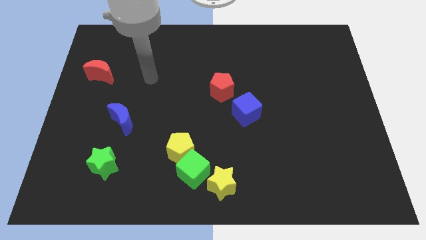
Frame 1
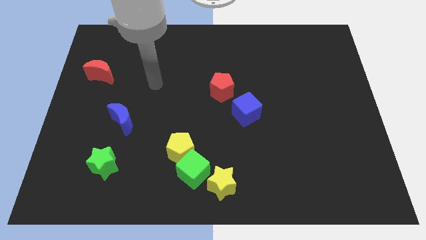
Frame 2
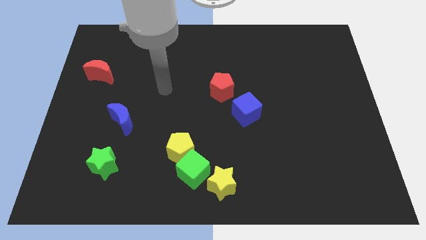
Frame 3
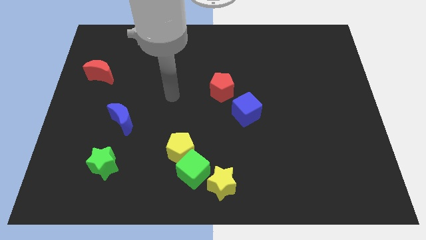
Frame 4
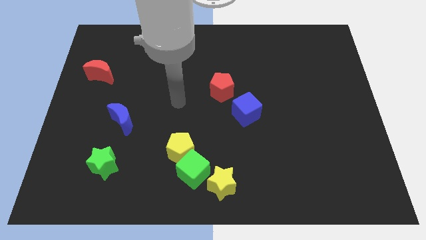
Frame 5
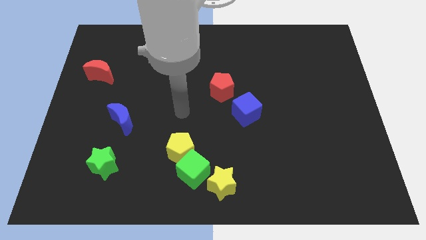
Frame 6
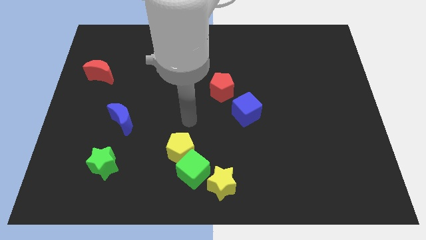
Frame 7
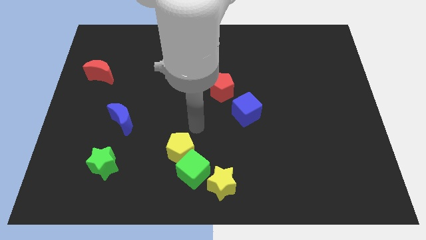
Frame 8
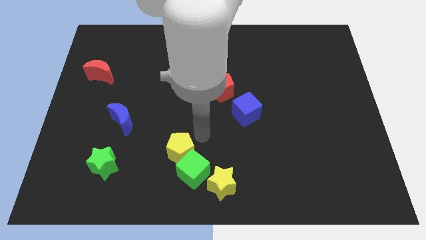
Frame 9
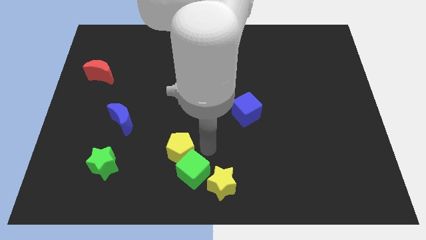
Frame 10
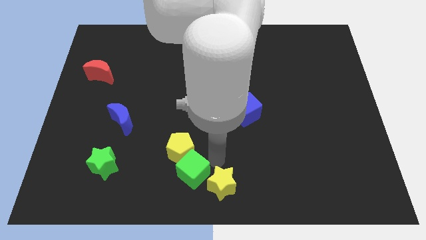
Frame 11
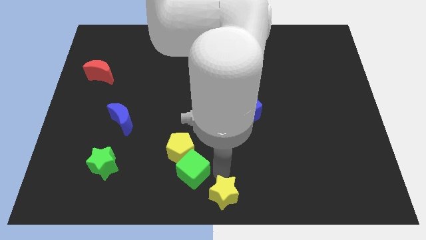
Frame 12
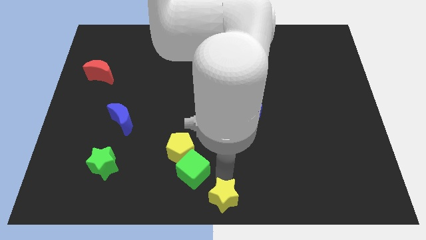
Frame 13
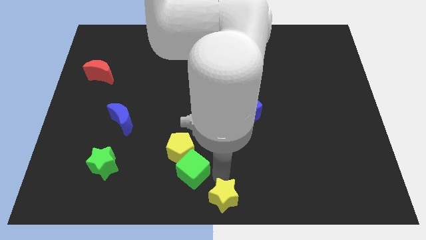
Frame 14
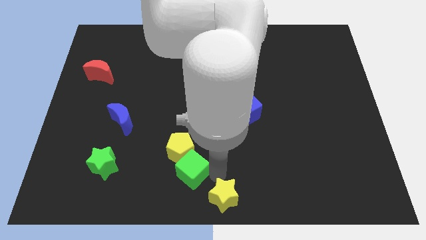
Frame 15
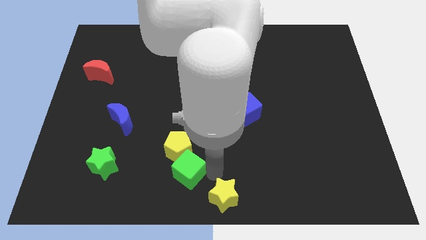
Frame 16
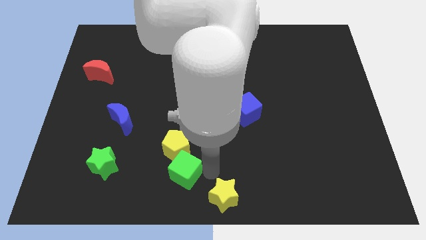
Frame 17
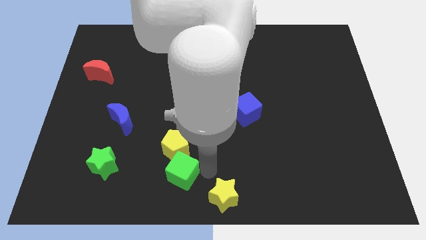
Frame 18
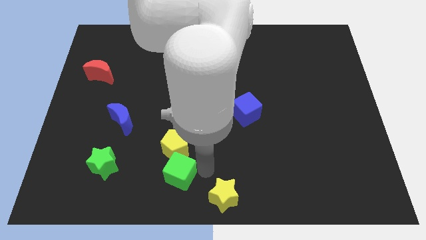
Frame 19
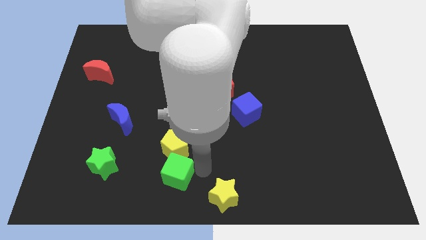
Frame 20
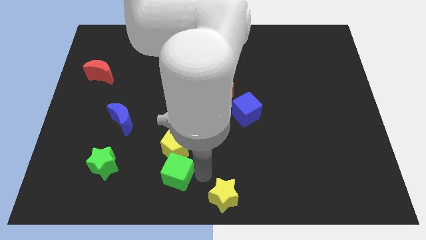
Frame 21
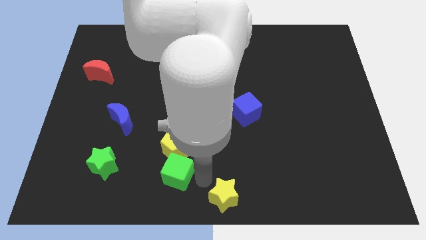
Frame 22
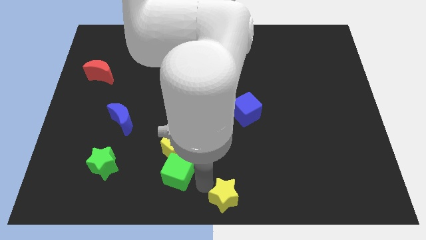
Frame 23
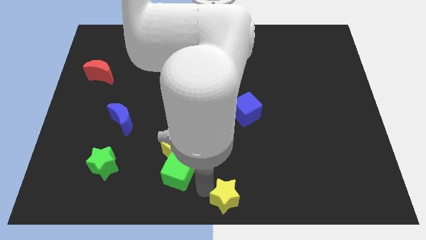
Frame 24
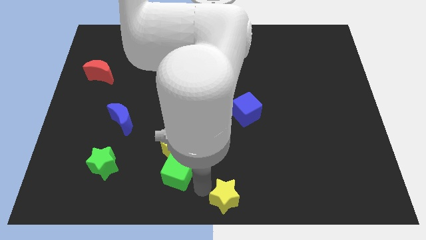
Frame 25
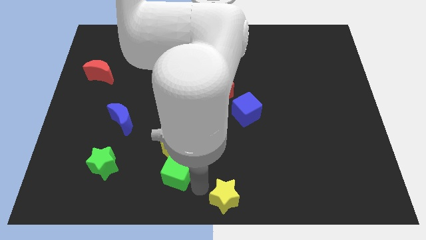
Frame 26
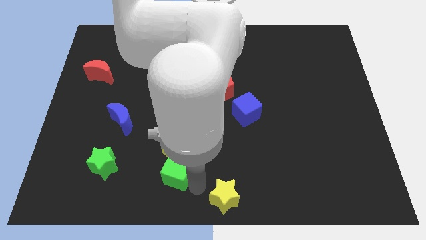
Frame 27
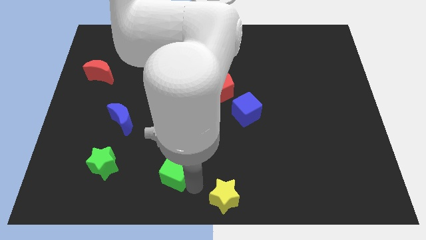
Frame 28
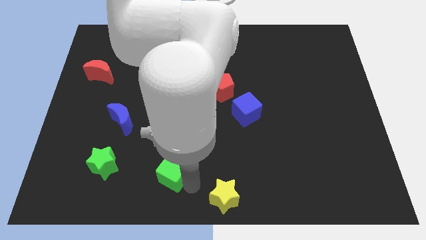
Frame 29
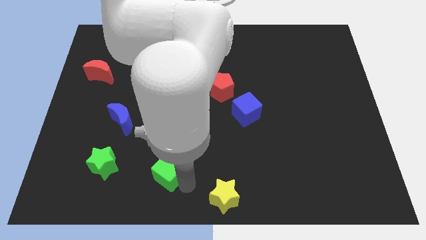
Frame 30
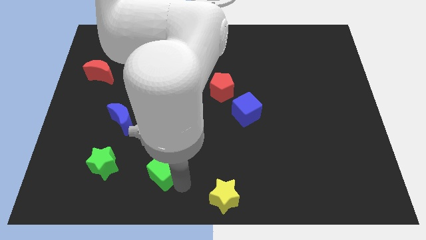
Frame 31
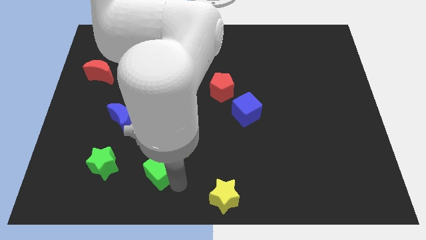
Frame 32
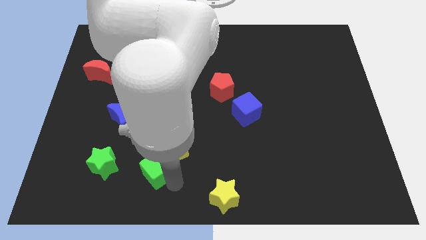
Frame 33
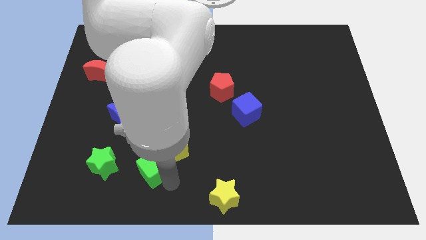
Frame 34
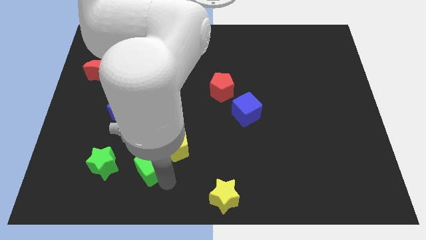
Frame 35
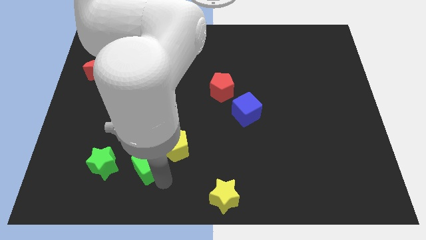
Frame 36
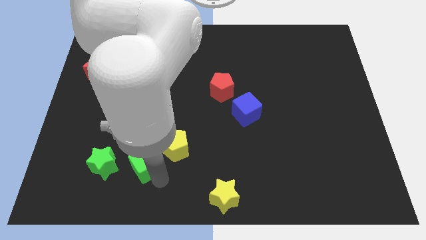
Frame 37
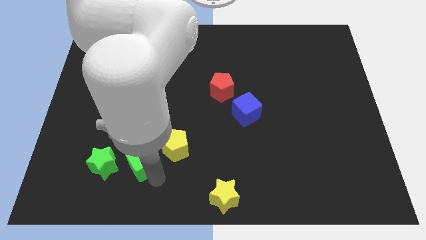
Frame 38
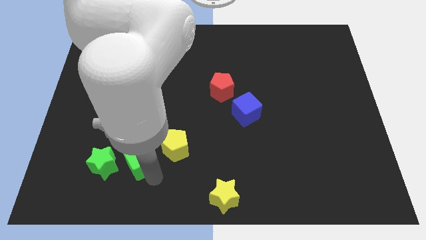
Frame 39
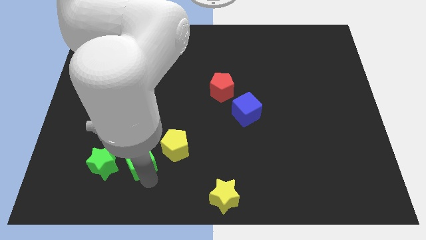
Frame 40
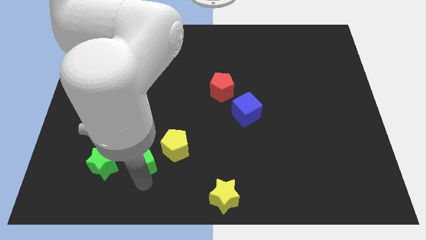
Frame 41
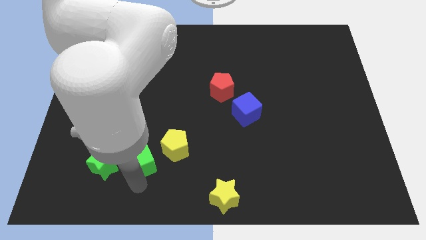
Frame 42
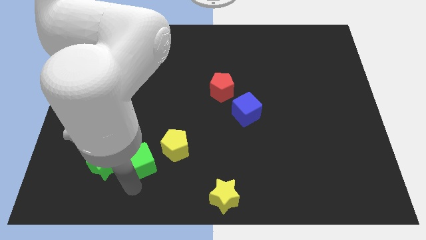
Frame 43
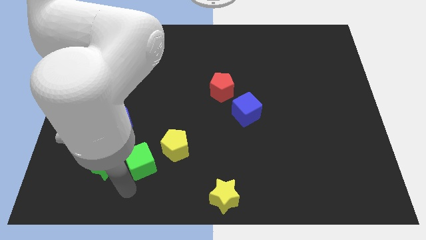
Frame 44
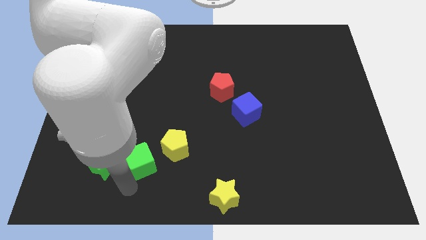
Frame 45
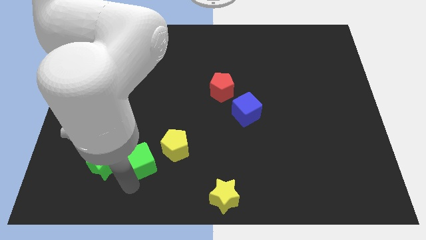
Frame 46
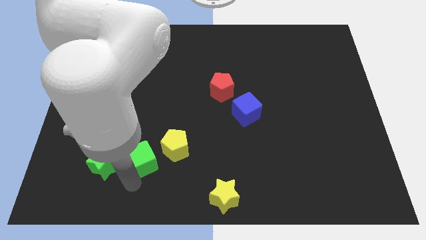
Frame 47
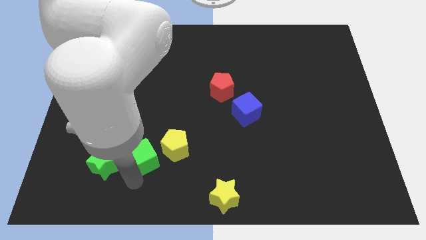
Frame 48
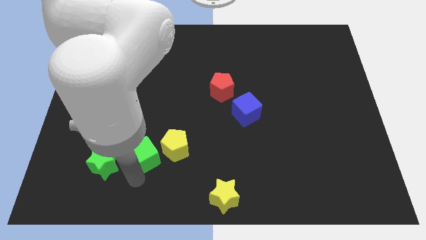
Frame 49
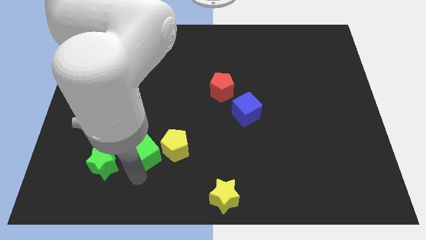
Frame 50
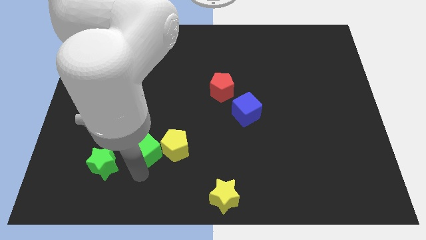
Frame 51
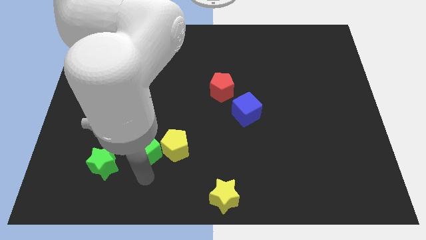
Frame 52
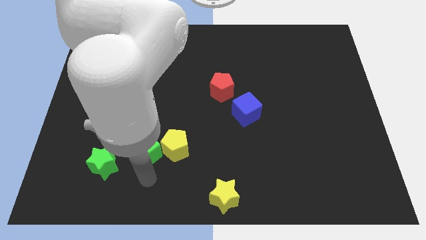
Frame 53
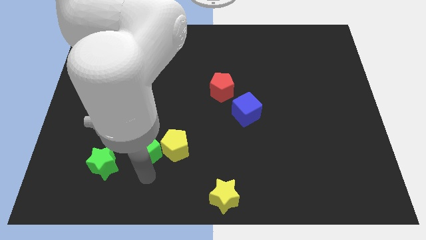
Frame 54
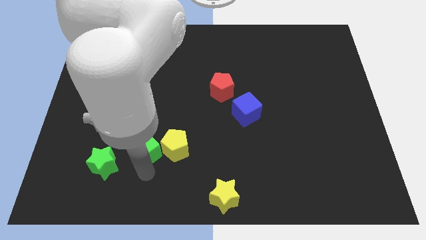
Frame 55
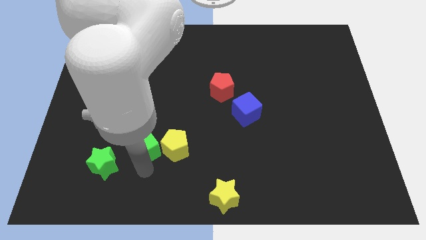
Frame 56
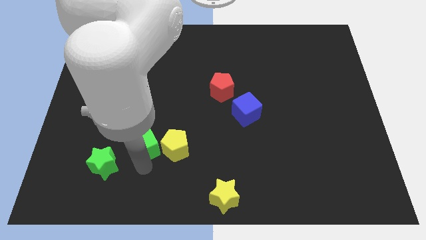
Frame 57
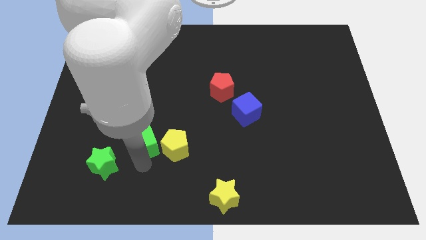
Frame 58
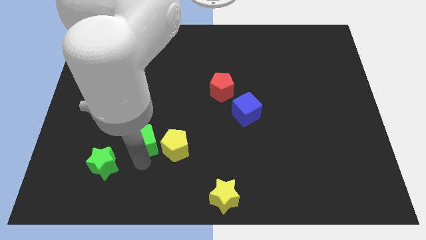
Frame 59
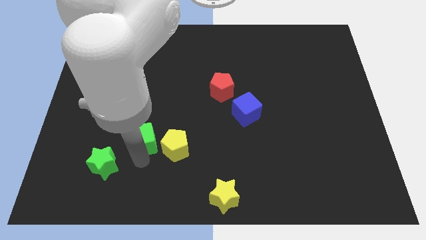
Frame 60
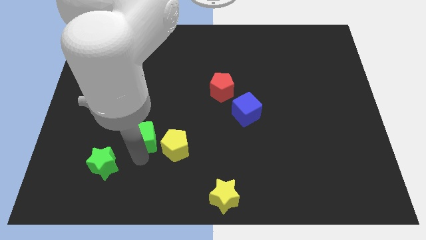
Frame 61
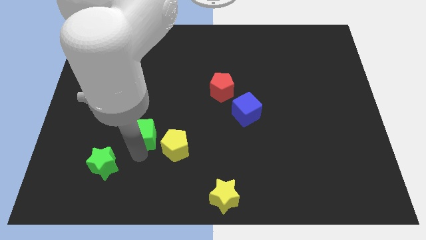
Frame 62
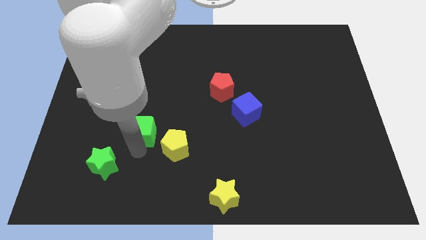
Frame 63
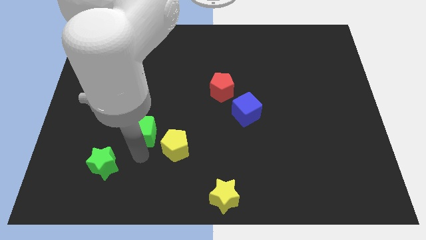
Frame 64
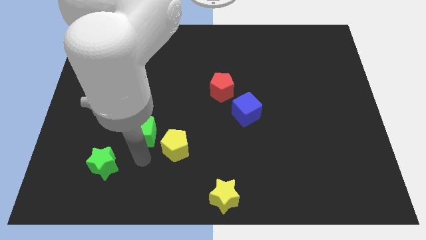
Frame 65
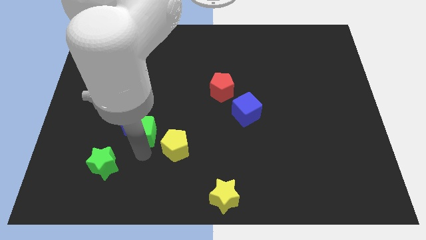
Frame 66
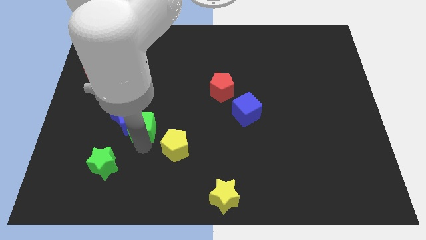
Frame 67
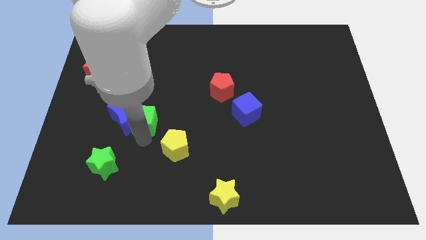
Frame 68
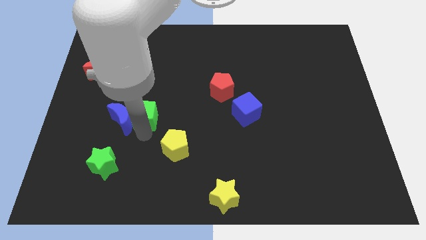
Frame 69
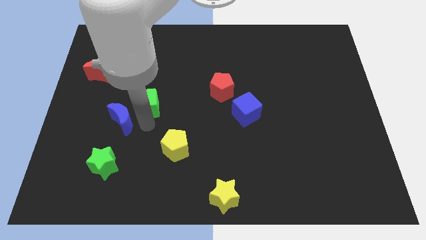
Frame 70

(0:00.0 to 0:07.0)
push the green cube above the blue moon

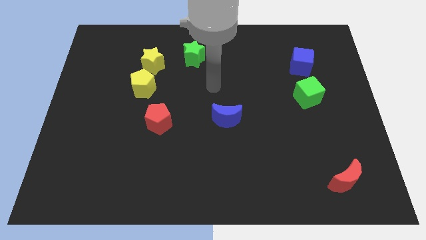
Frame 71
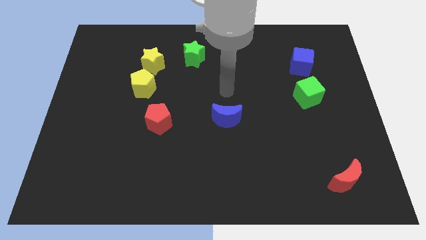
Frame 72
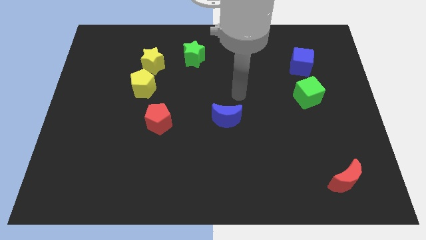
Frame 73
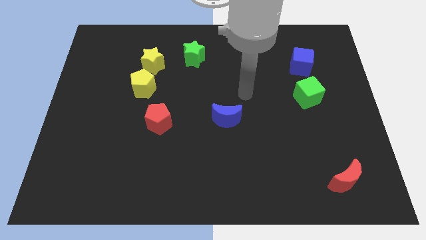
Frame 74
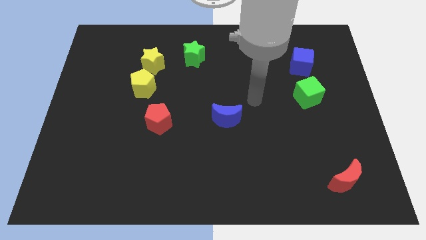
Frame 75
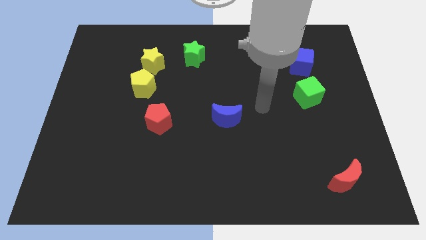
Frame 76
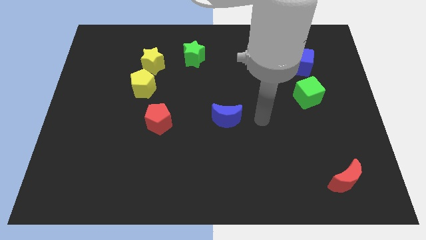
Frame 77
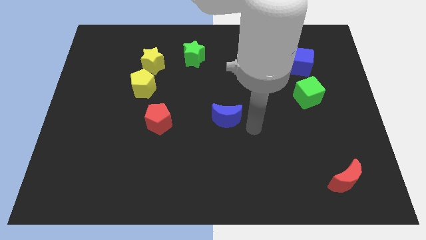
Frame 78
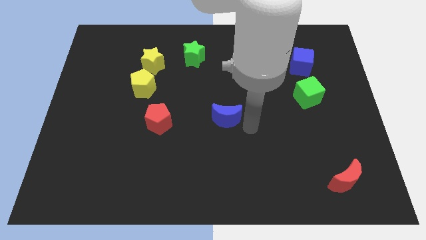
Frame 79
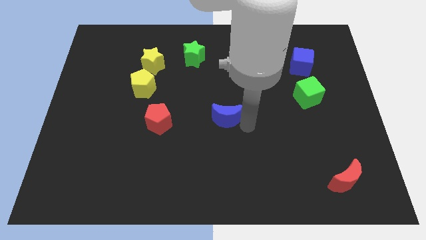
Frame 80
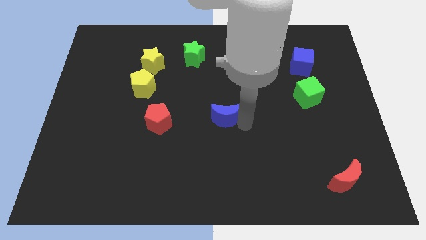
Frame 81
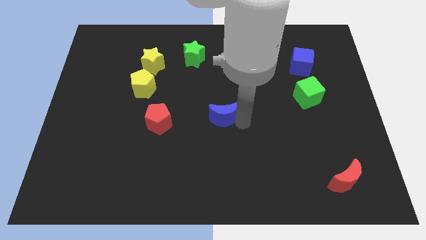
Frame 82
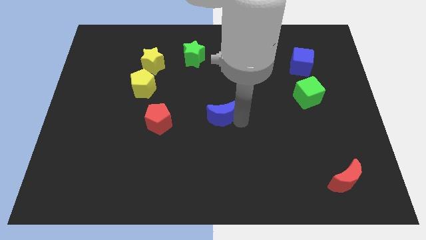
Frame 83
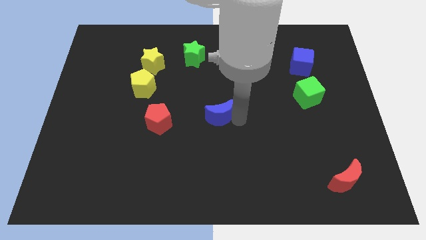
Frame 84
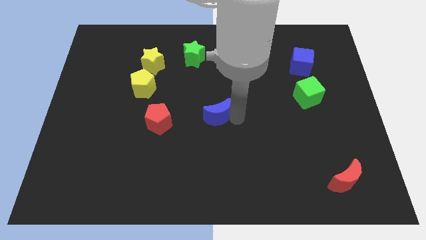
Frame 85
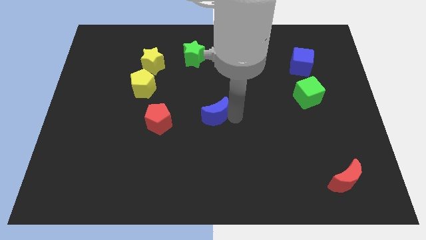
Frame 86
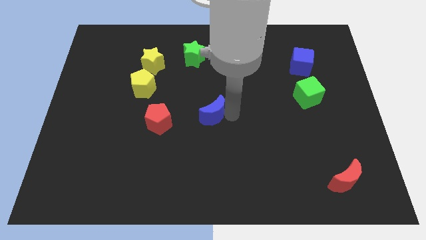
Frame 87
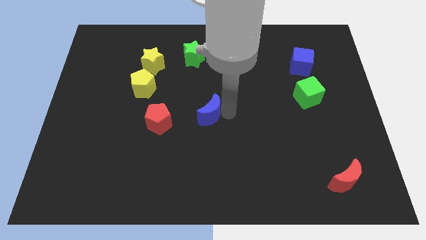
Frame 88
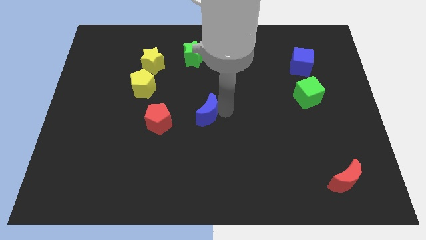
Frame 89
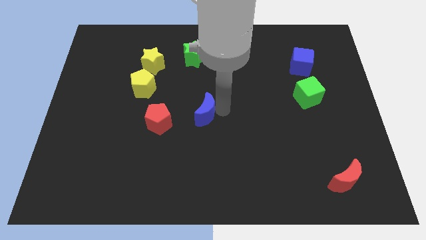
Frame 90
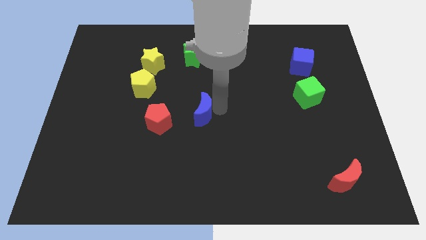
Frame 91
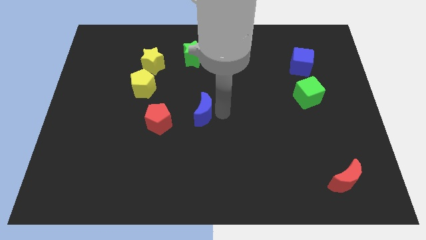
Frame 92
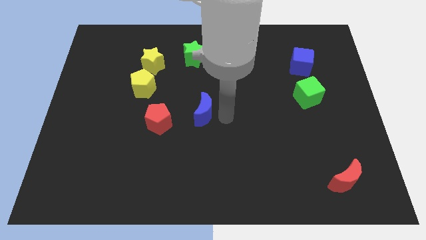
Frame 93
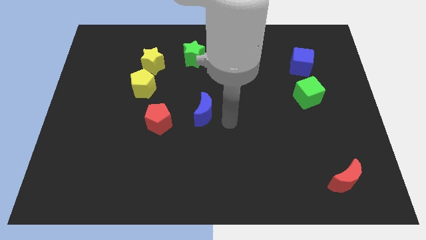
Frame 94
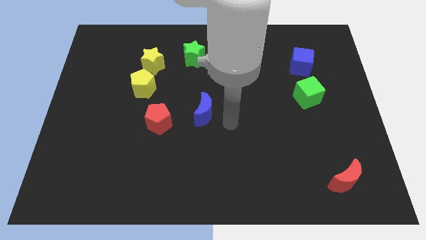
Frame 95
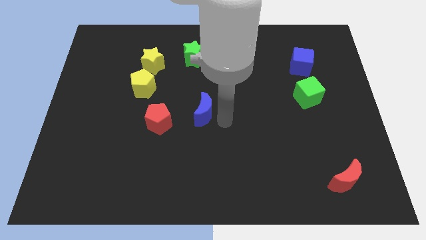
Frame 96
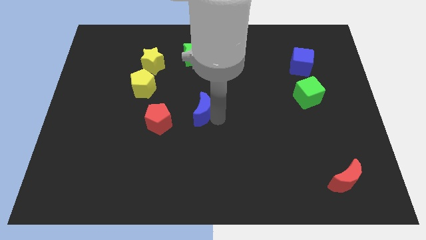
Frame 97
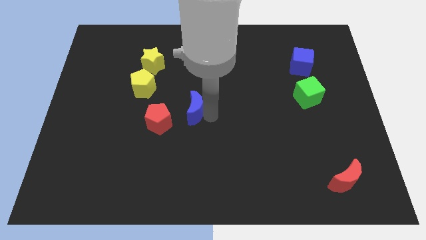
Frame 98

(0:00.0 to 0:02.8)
slide the blue moon to the top right of the red pentagon
